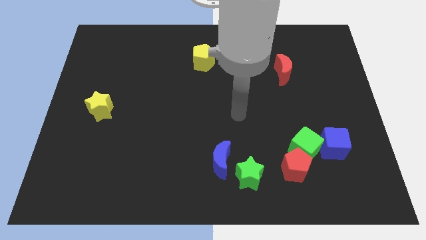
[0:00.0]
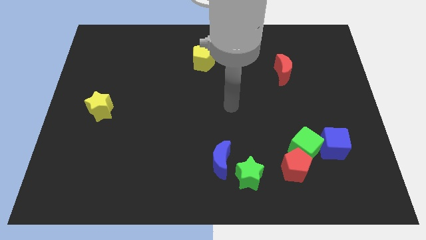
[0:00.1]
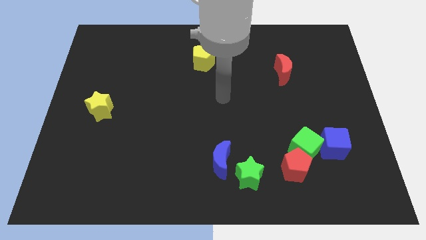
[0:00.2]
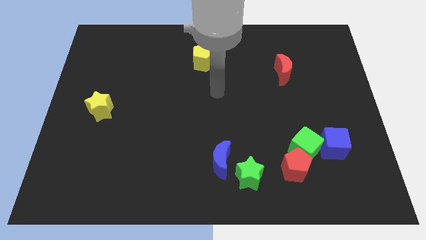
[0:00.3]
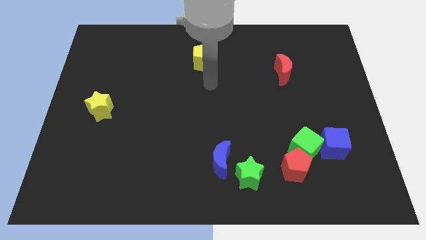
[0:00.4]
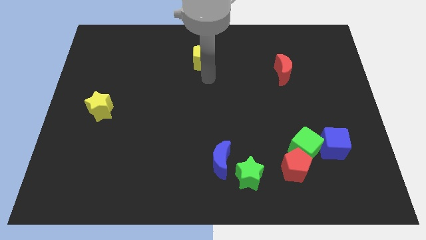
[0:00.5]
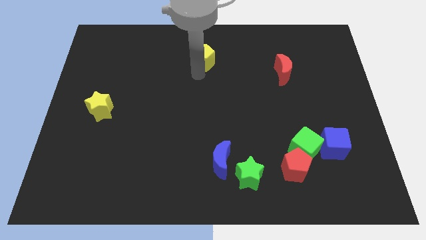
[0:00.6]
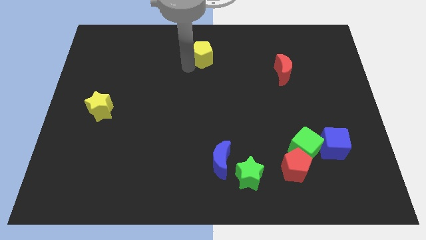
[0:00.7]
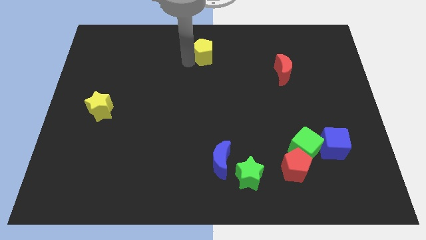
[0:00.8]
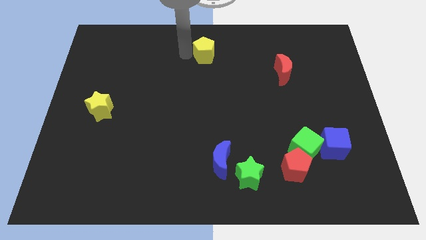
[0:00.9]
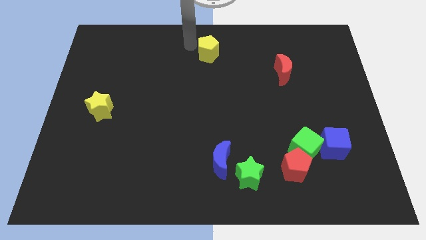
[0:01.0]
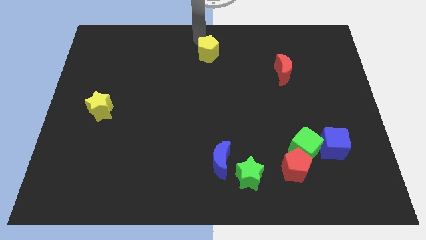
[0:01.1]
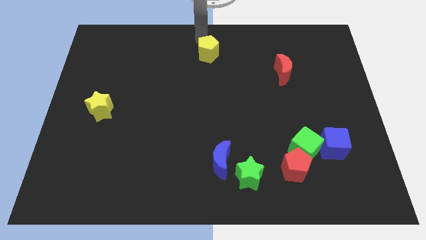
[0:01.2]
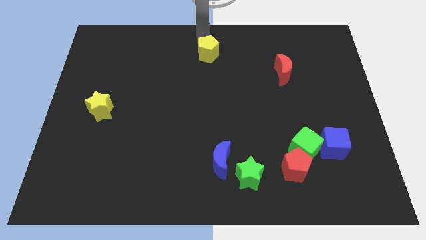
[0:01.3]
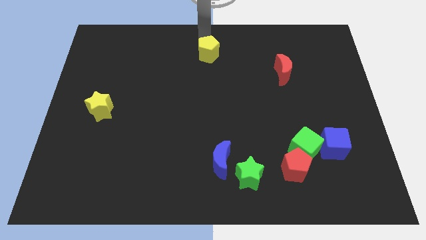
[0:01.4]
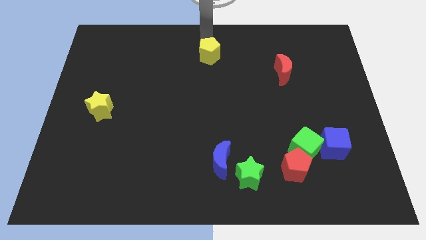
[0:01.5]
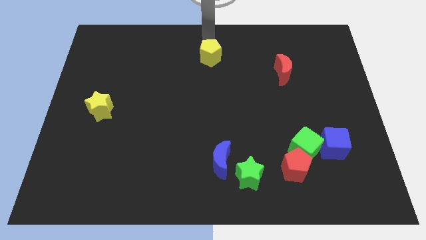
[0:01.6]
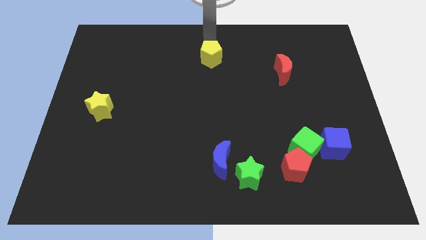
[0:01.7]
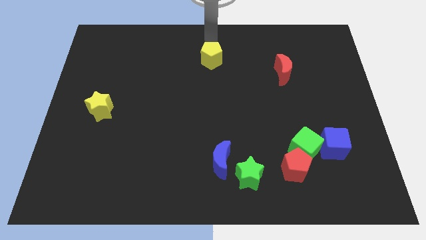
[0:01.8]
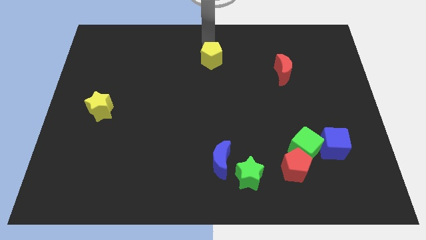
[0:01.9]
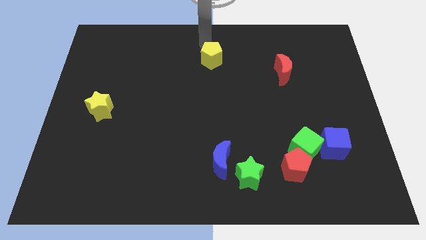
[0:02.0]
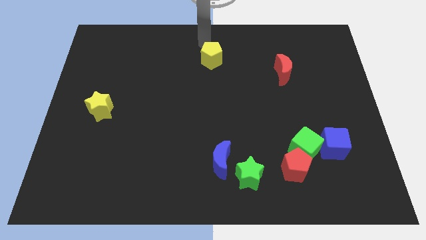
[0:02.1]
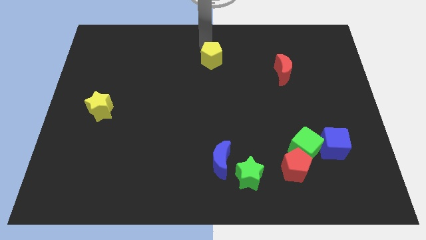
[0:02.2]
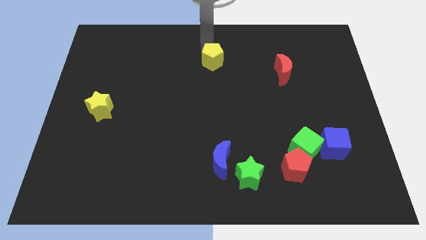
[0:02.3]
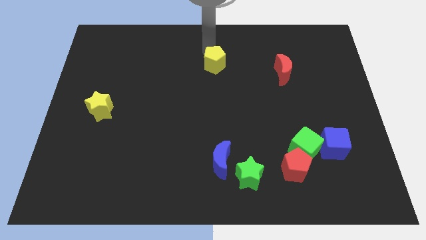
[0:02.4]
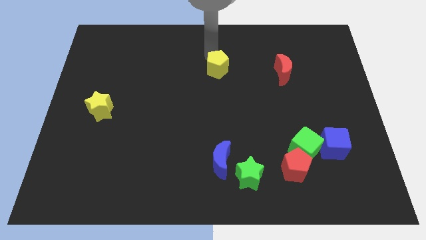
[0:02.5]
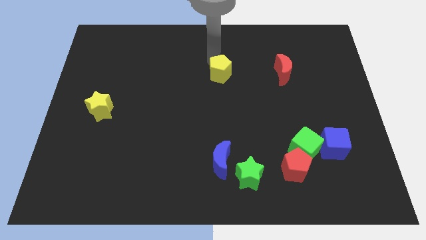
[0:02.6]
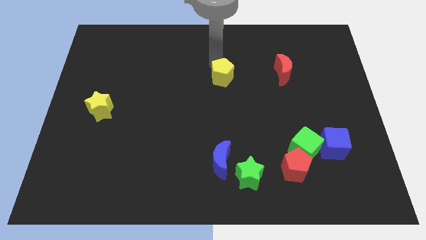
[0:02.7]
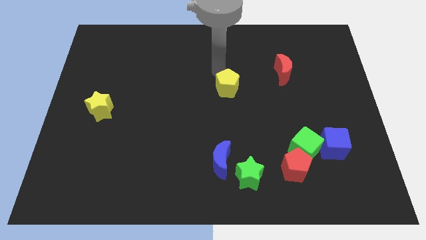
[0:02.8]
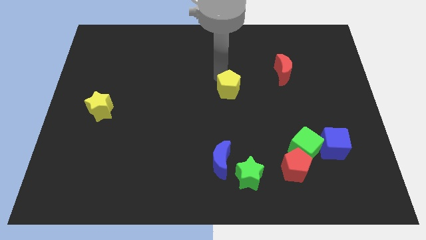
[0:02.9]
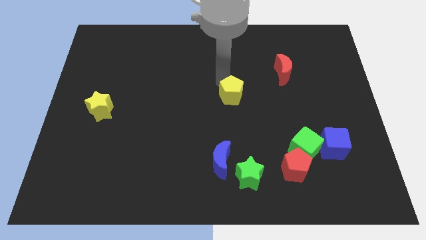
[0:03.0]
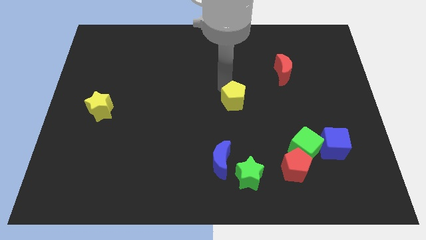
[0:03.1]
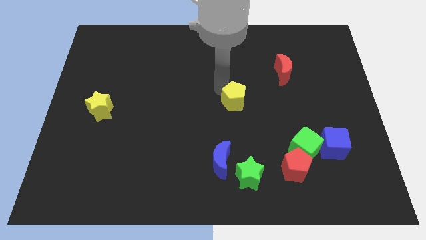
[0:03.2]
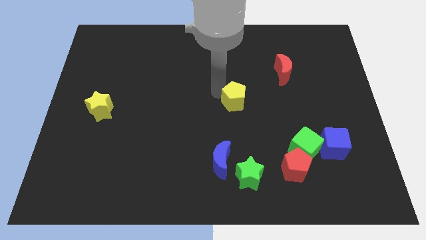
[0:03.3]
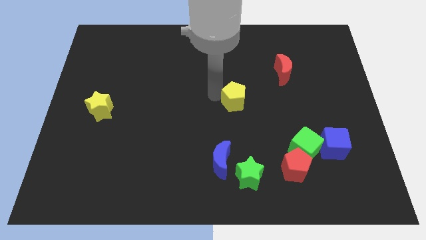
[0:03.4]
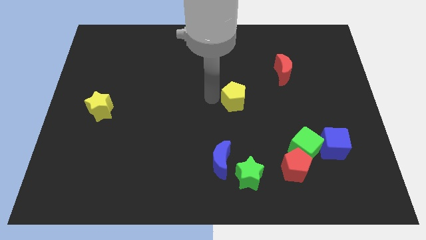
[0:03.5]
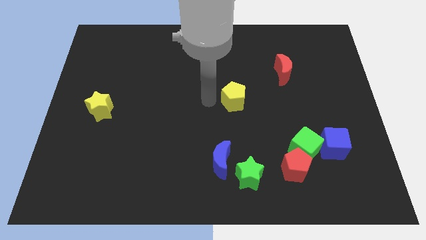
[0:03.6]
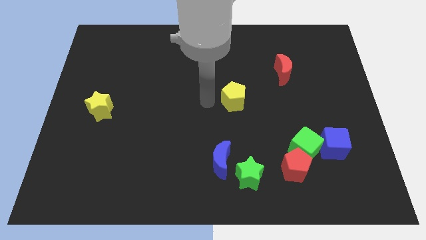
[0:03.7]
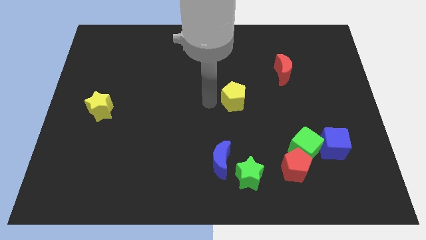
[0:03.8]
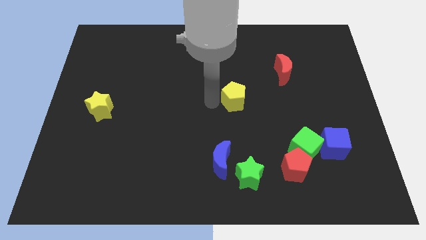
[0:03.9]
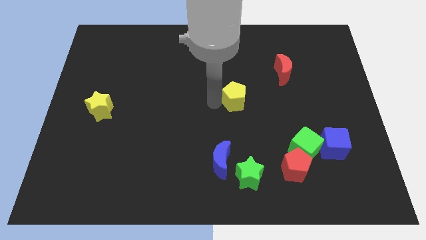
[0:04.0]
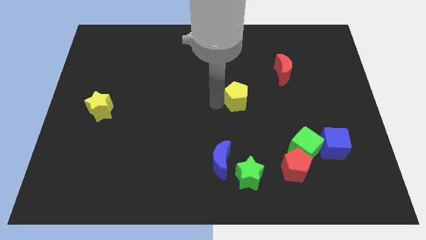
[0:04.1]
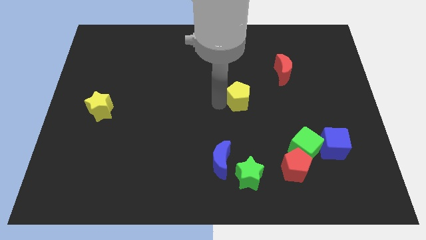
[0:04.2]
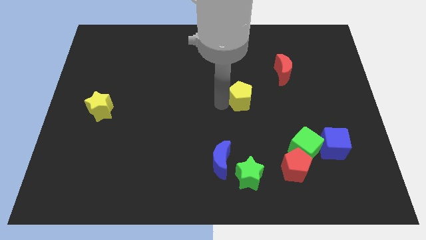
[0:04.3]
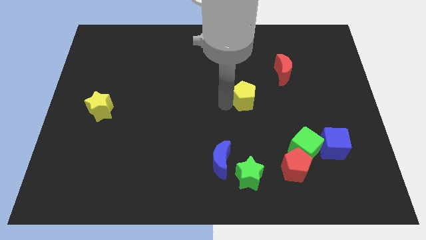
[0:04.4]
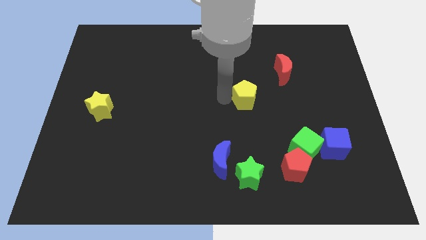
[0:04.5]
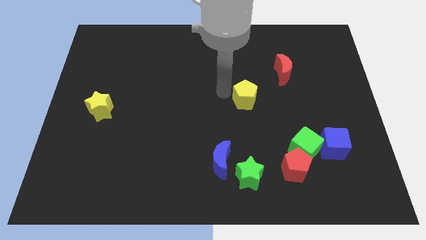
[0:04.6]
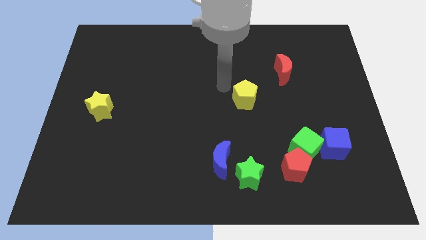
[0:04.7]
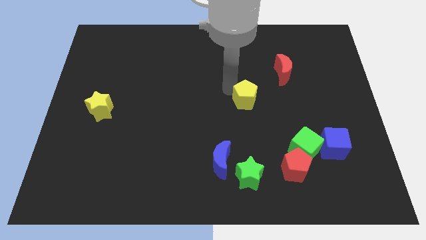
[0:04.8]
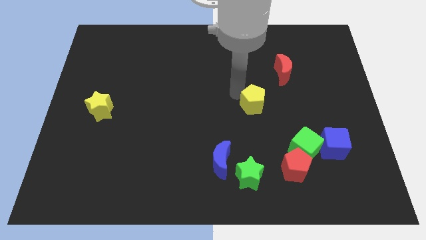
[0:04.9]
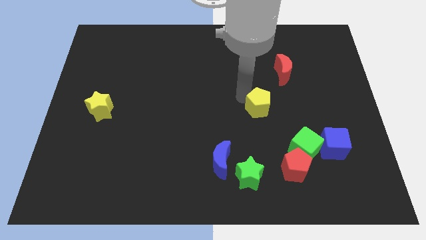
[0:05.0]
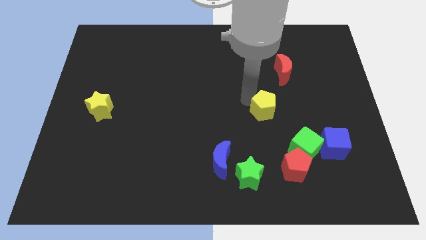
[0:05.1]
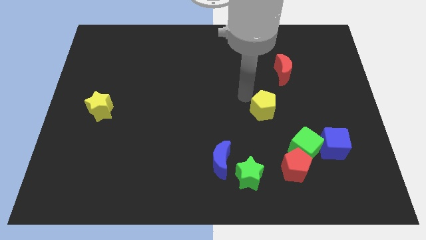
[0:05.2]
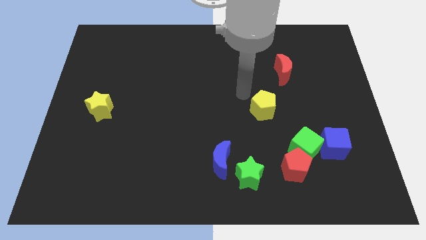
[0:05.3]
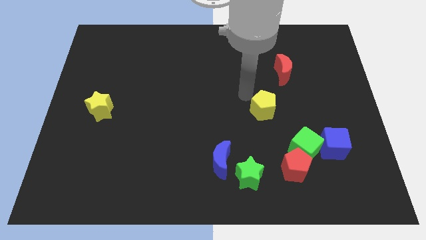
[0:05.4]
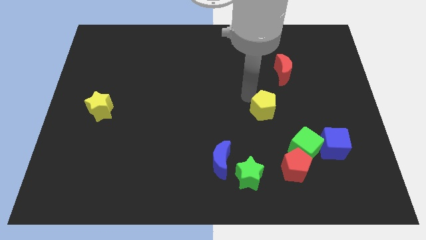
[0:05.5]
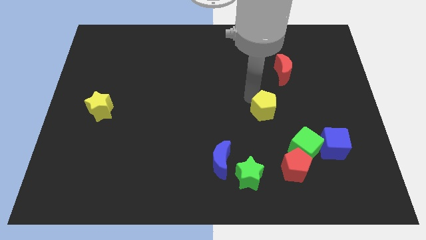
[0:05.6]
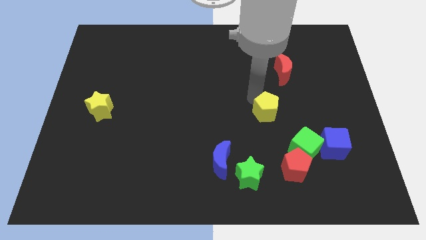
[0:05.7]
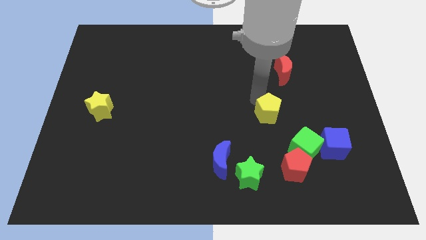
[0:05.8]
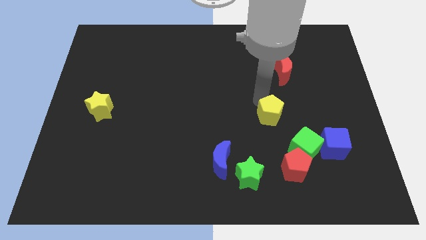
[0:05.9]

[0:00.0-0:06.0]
slide the yellow pentagon above the red pentagon

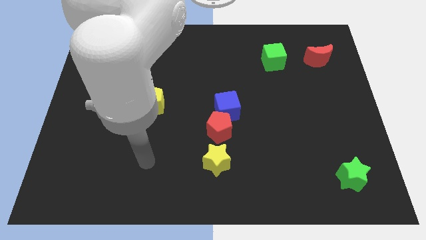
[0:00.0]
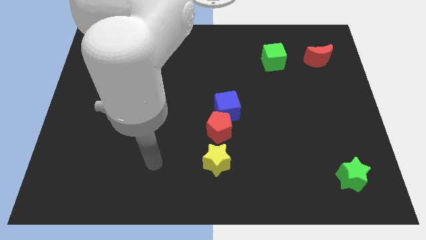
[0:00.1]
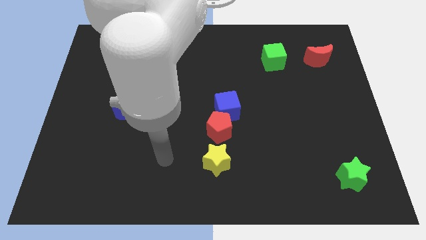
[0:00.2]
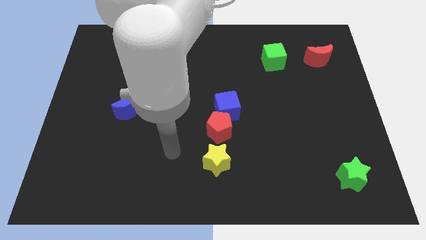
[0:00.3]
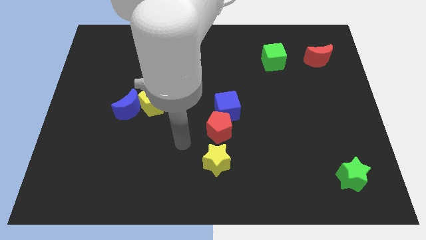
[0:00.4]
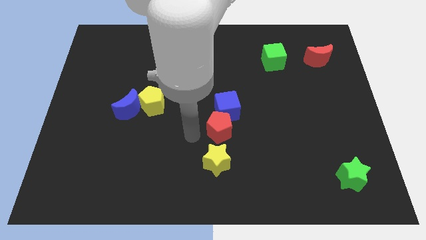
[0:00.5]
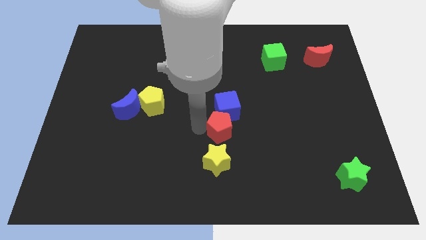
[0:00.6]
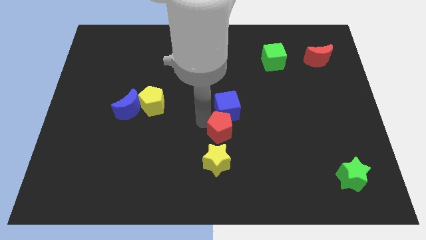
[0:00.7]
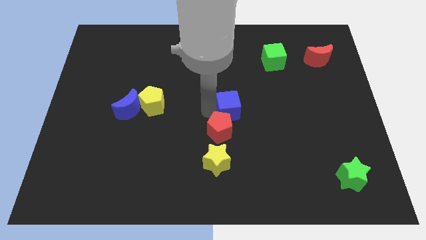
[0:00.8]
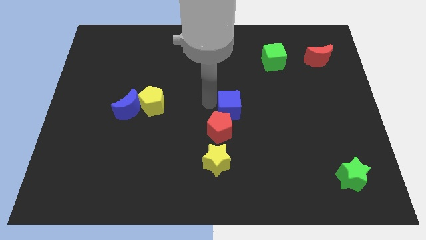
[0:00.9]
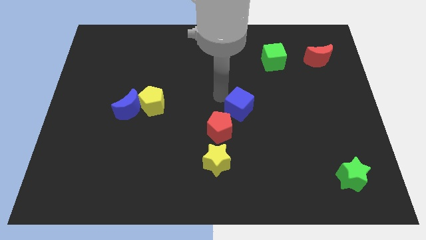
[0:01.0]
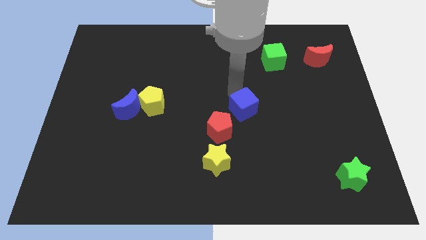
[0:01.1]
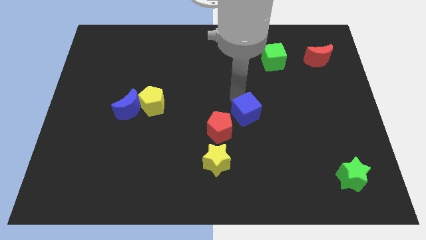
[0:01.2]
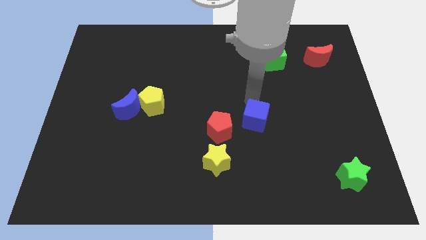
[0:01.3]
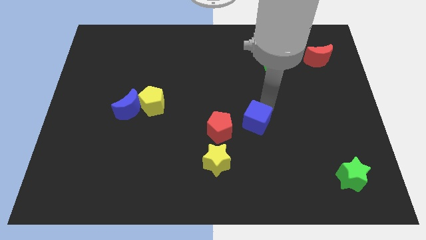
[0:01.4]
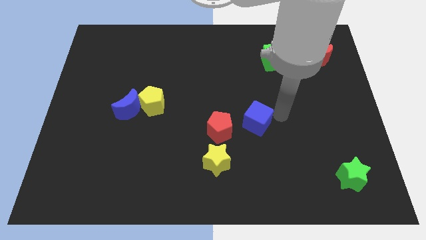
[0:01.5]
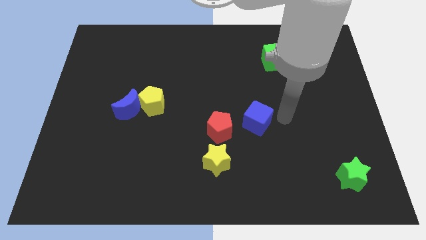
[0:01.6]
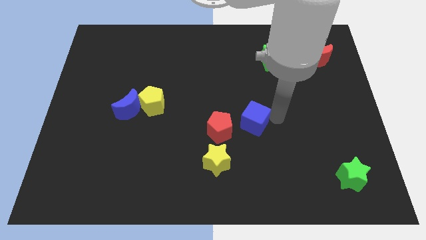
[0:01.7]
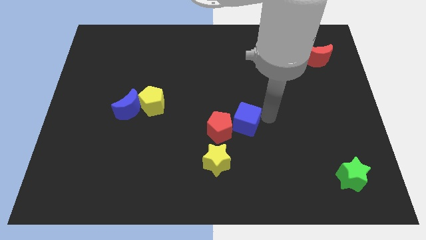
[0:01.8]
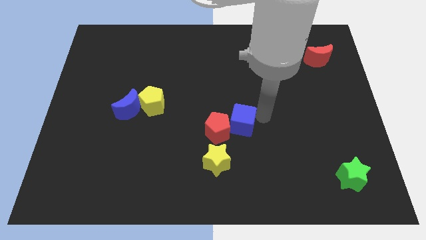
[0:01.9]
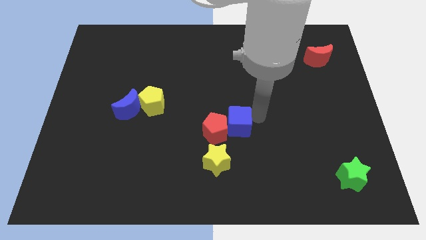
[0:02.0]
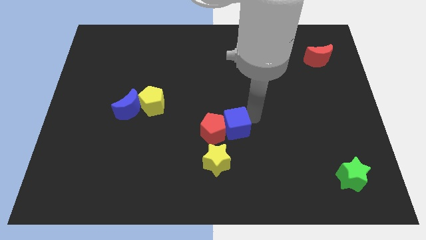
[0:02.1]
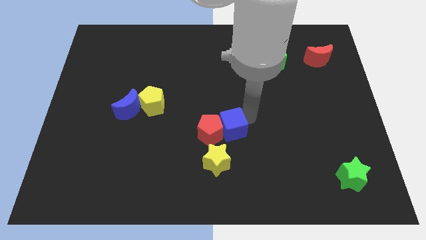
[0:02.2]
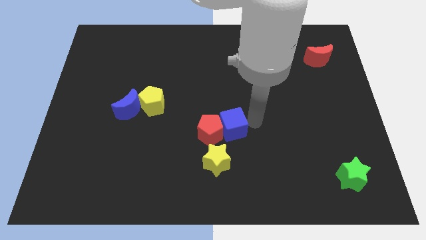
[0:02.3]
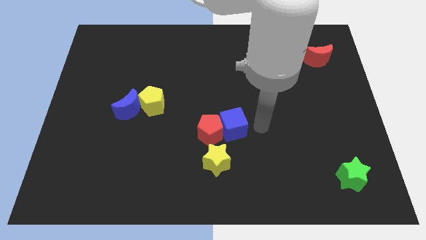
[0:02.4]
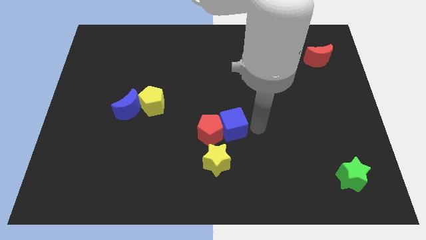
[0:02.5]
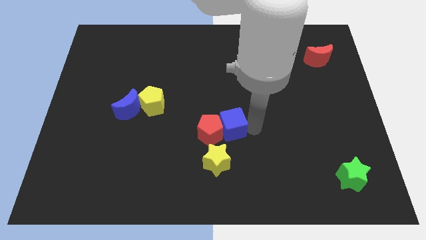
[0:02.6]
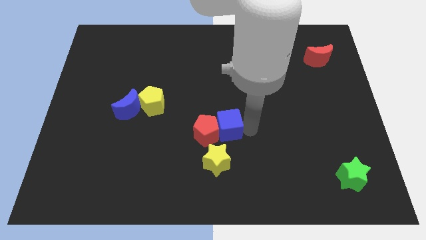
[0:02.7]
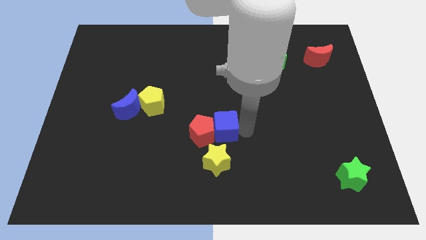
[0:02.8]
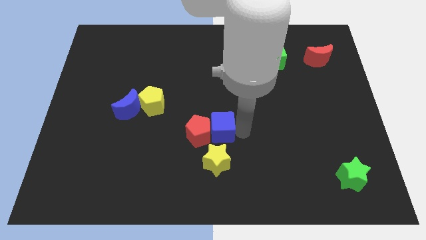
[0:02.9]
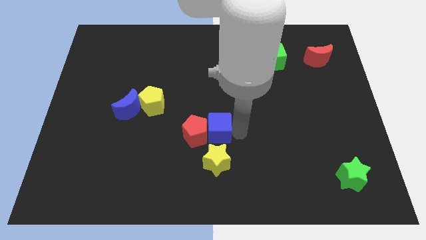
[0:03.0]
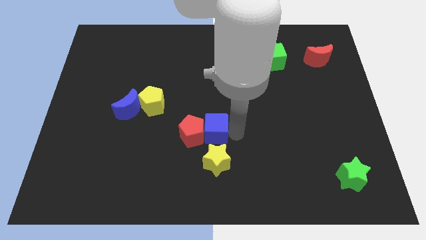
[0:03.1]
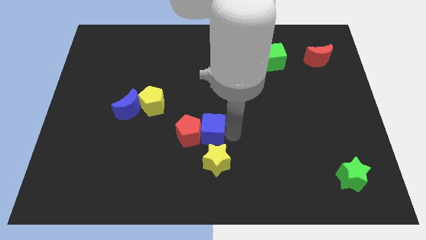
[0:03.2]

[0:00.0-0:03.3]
move the blue cube diagonally up and to the left of the yellow star
